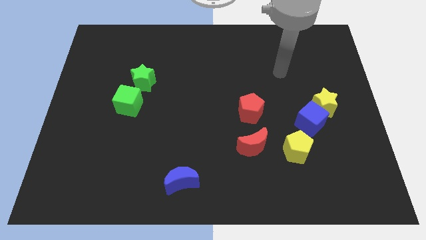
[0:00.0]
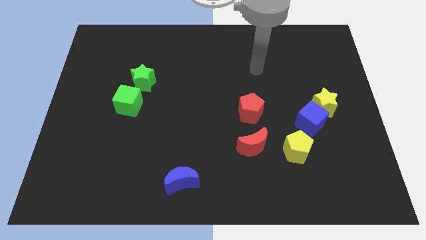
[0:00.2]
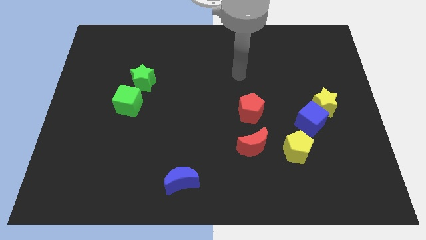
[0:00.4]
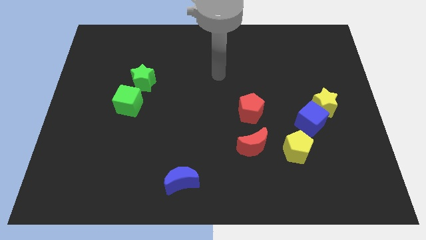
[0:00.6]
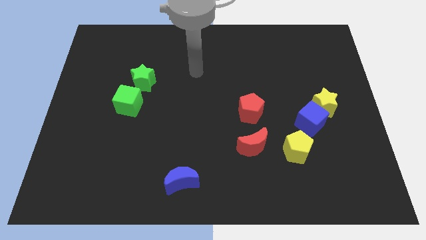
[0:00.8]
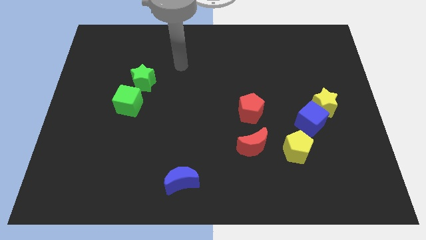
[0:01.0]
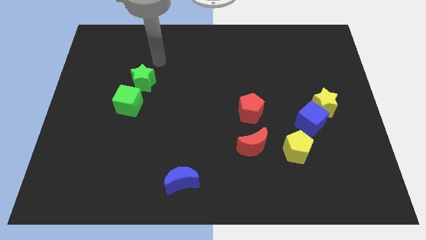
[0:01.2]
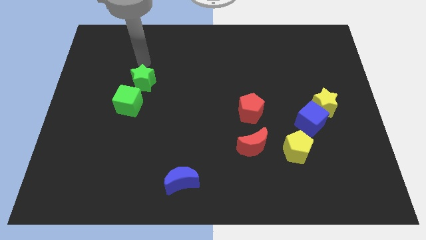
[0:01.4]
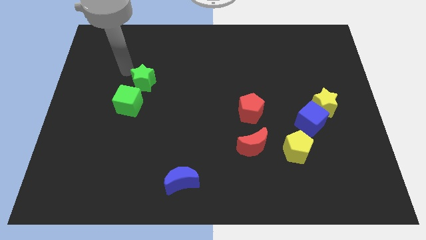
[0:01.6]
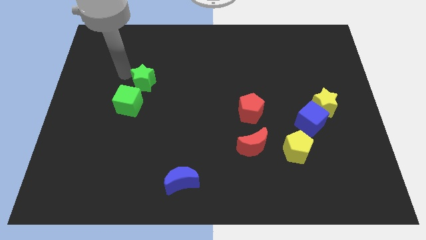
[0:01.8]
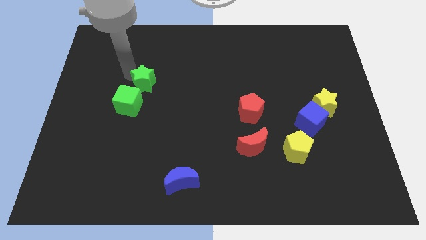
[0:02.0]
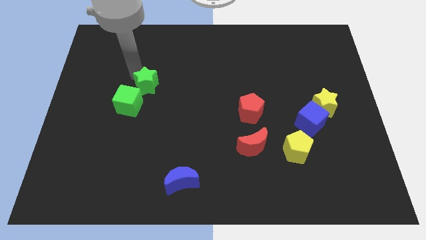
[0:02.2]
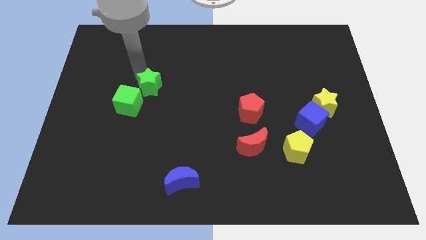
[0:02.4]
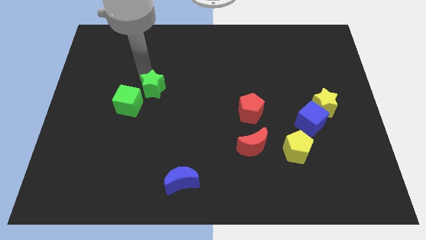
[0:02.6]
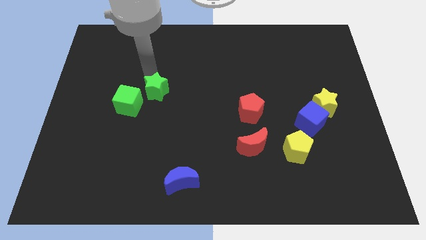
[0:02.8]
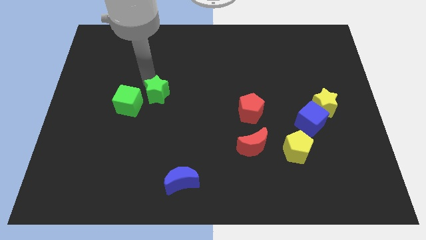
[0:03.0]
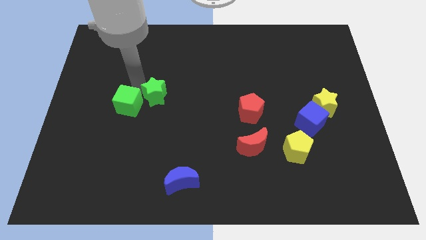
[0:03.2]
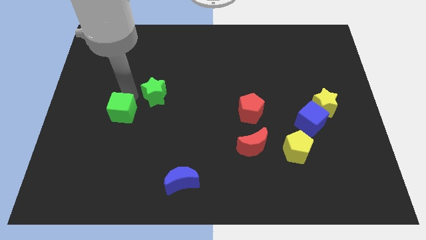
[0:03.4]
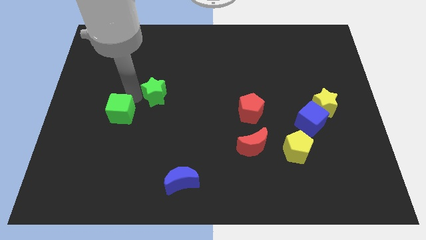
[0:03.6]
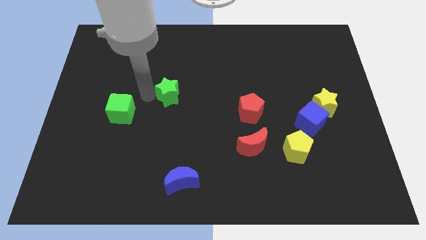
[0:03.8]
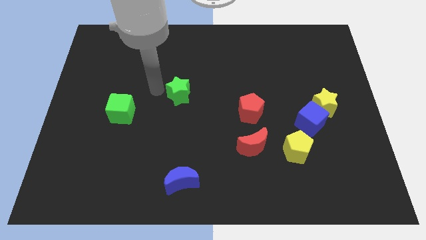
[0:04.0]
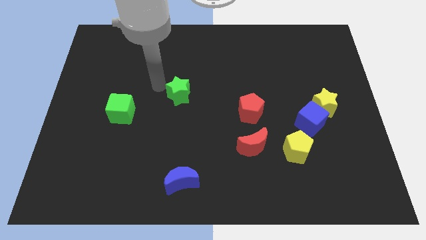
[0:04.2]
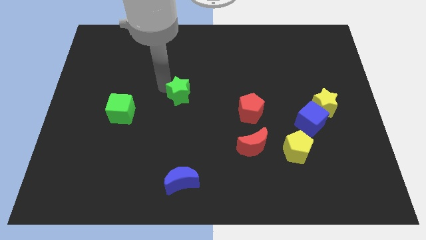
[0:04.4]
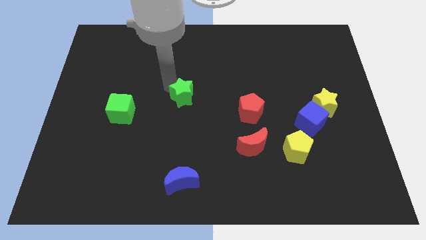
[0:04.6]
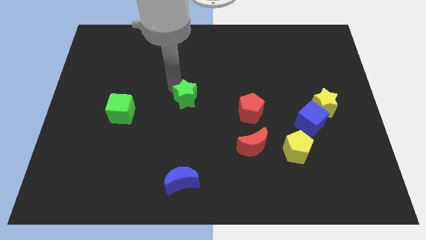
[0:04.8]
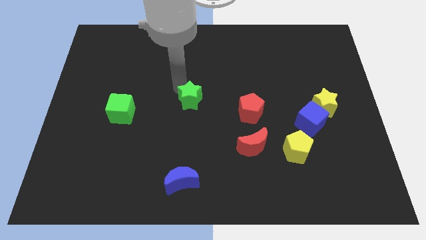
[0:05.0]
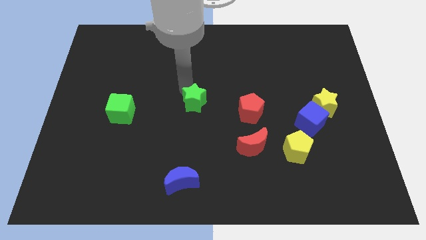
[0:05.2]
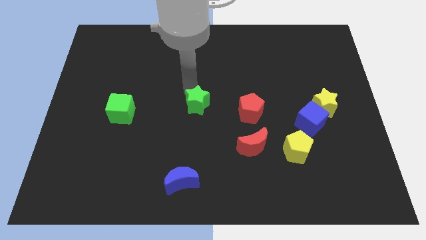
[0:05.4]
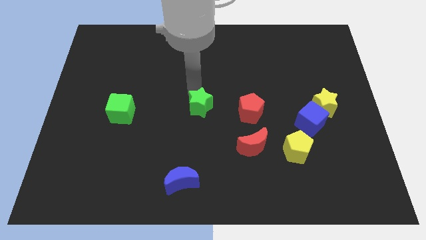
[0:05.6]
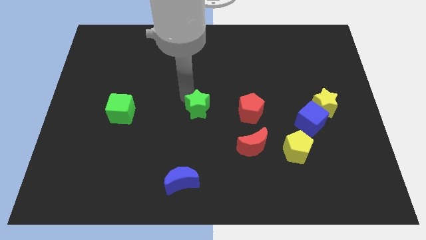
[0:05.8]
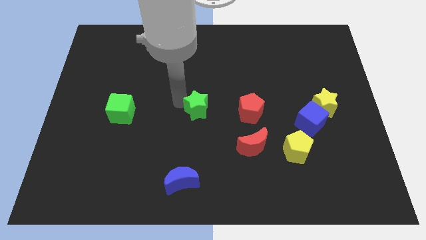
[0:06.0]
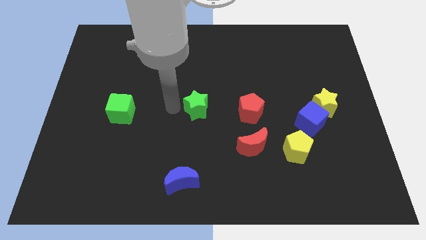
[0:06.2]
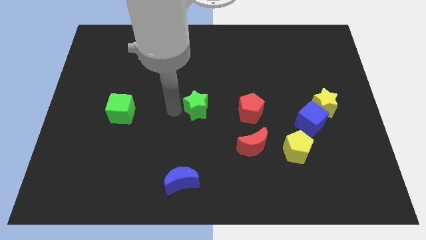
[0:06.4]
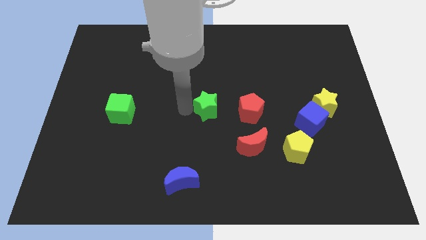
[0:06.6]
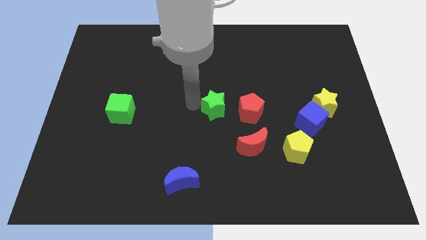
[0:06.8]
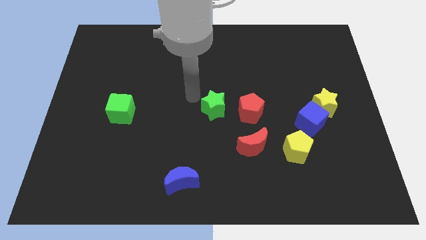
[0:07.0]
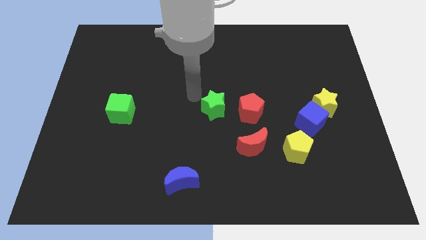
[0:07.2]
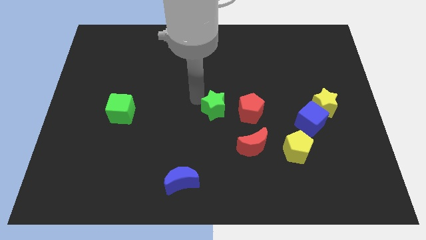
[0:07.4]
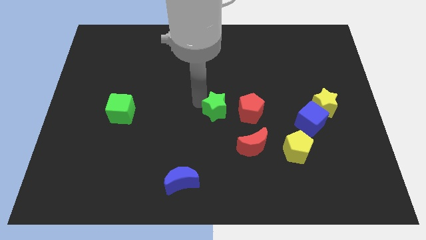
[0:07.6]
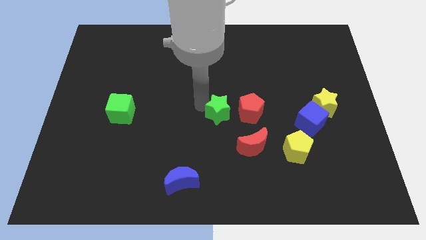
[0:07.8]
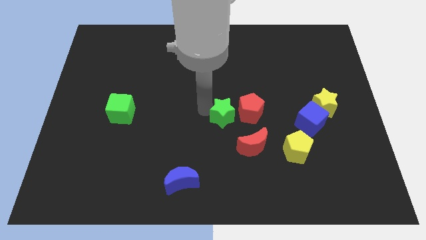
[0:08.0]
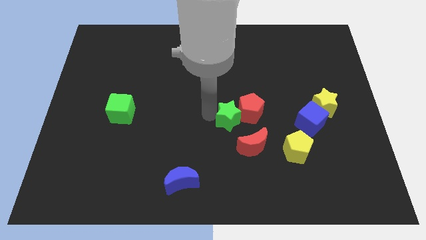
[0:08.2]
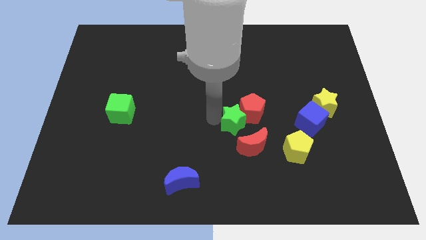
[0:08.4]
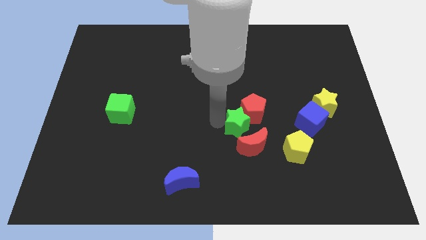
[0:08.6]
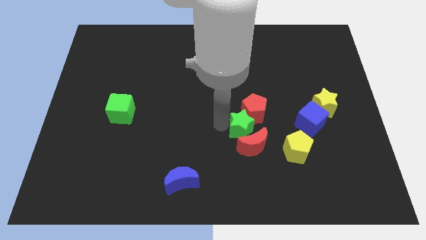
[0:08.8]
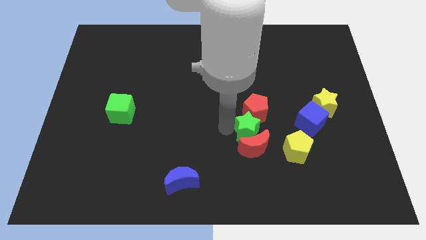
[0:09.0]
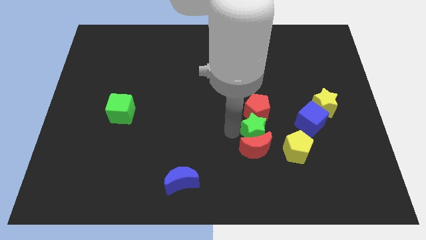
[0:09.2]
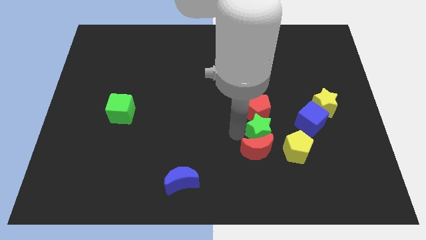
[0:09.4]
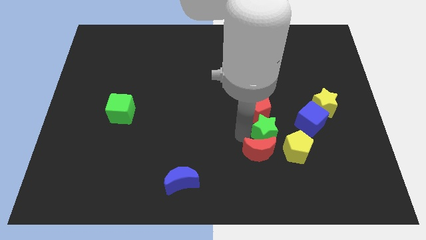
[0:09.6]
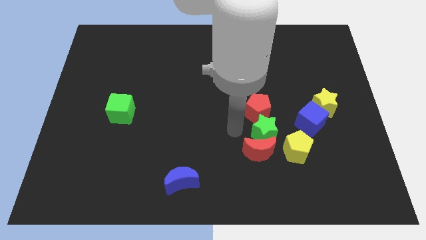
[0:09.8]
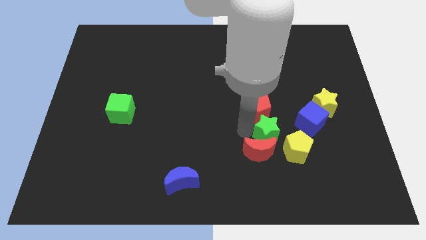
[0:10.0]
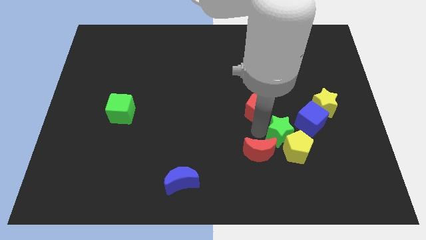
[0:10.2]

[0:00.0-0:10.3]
put the green star to the yellow pentagon
